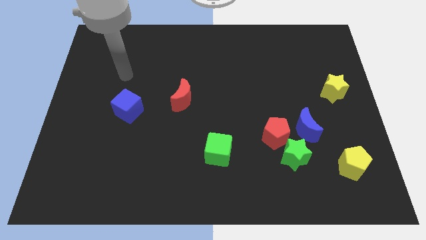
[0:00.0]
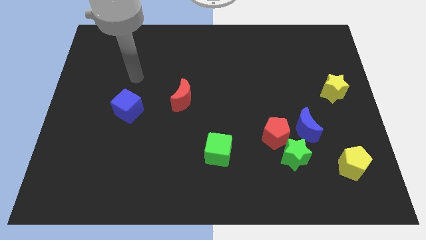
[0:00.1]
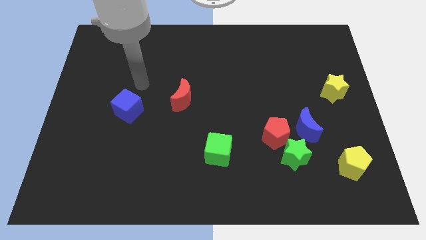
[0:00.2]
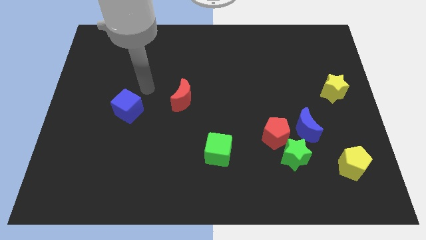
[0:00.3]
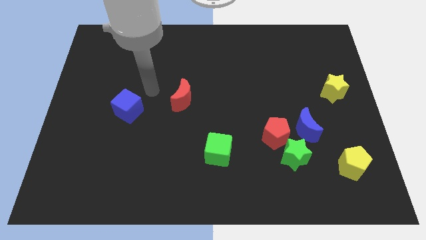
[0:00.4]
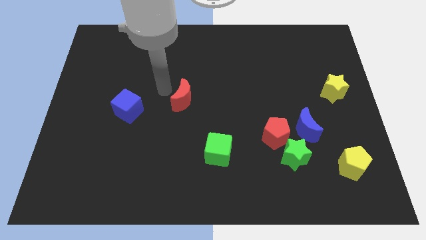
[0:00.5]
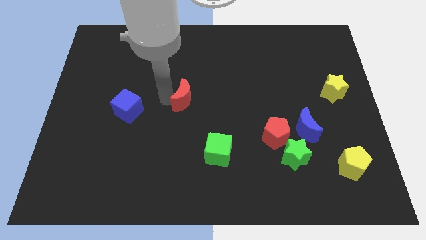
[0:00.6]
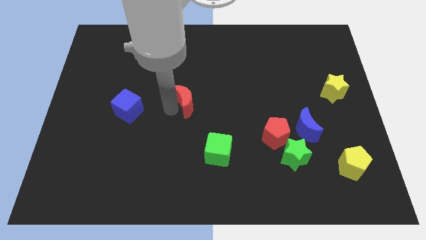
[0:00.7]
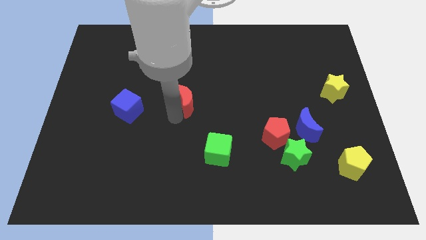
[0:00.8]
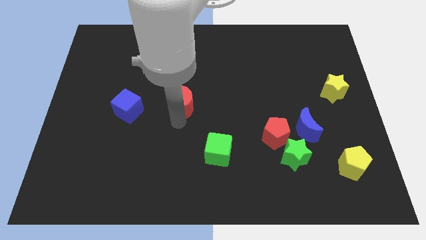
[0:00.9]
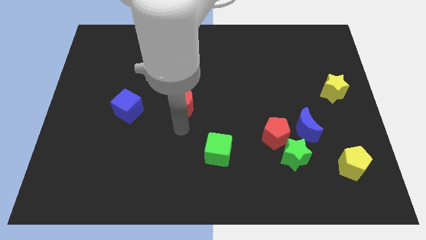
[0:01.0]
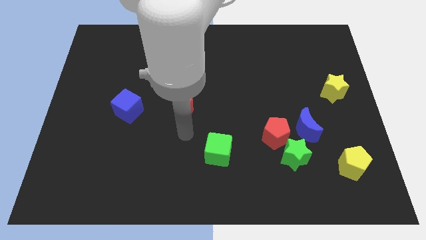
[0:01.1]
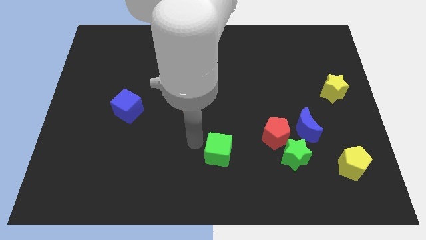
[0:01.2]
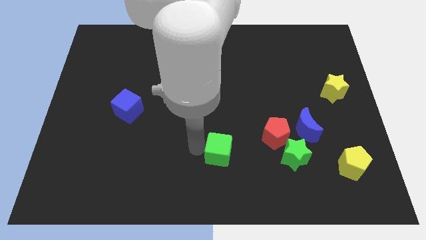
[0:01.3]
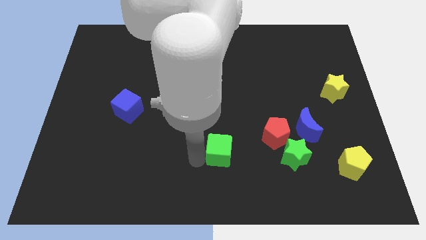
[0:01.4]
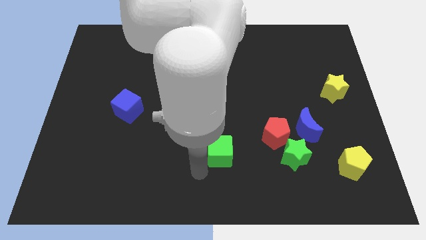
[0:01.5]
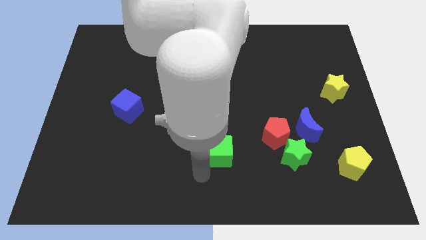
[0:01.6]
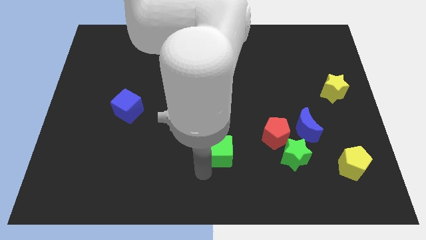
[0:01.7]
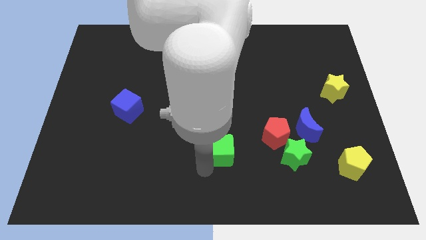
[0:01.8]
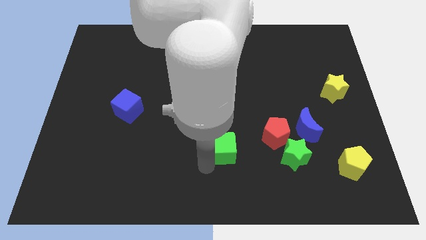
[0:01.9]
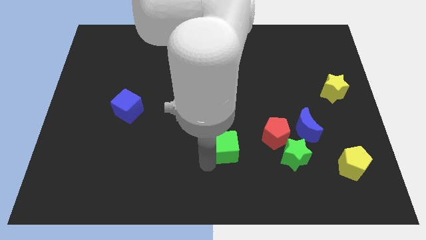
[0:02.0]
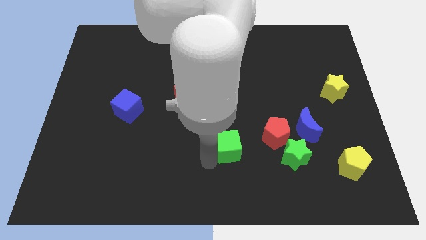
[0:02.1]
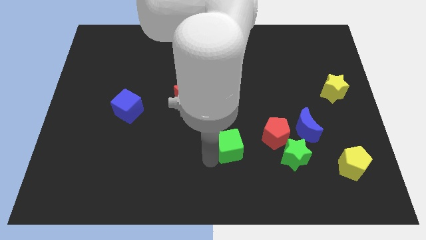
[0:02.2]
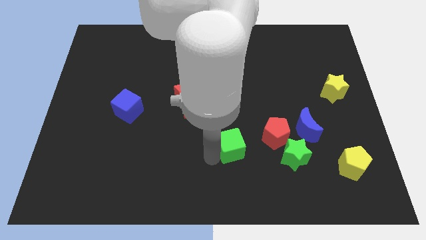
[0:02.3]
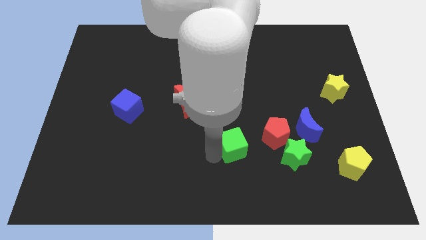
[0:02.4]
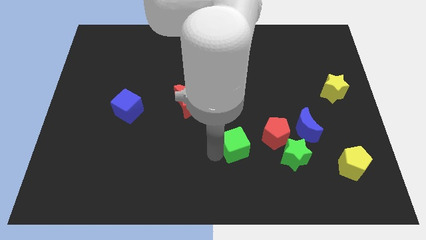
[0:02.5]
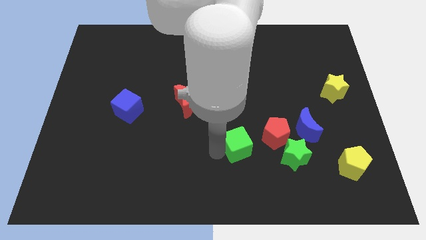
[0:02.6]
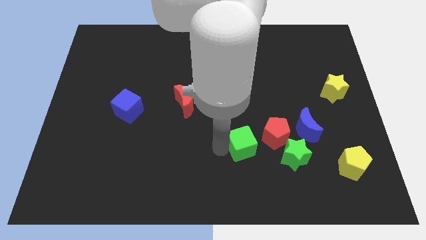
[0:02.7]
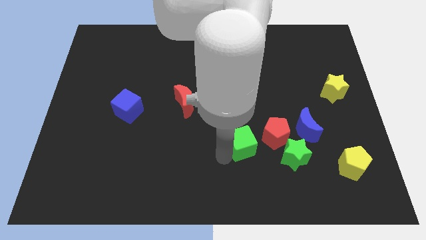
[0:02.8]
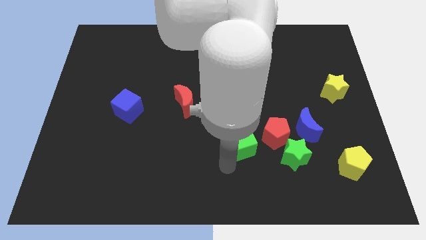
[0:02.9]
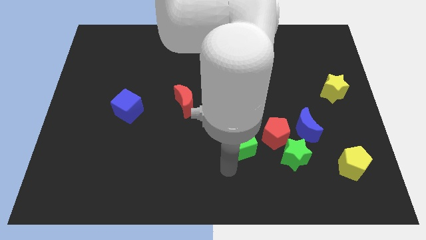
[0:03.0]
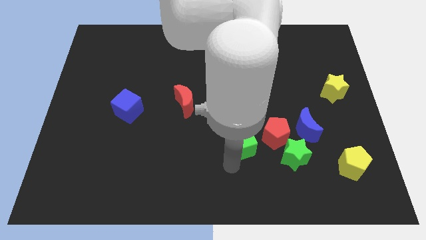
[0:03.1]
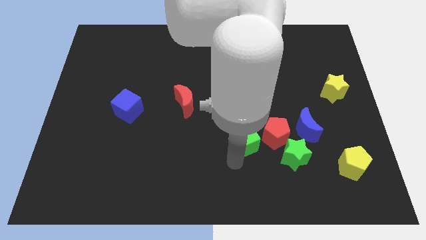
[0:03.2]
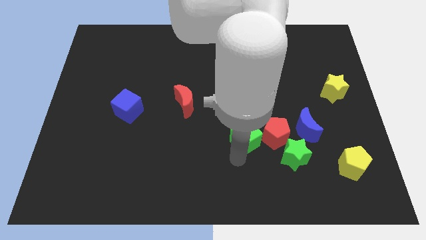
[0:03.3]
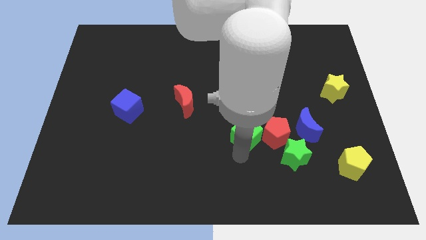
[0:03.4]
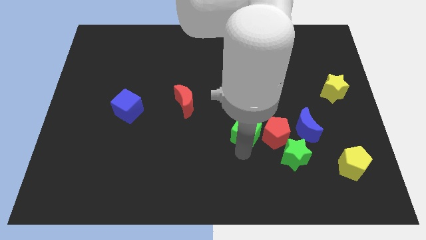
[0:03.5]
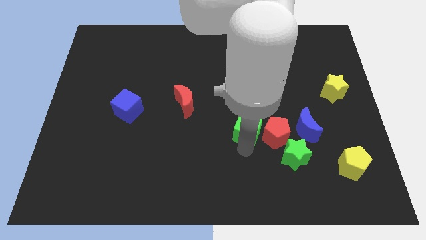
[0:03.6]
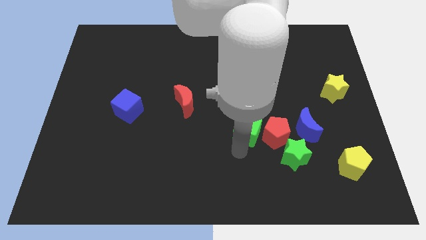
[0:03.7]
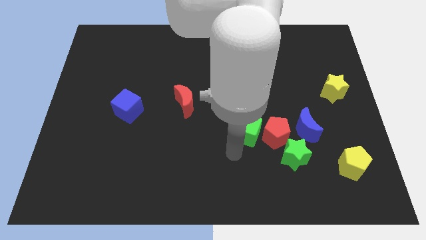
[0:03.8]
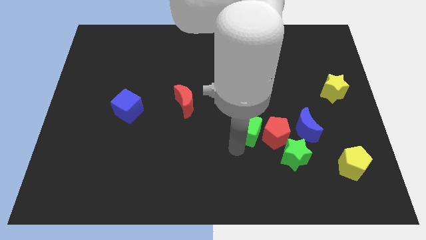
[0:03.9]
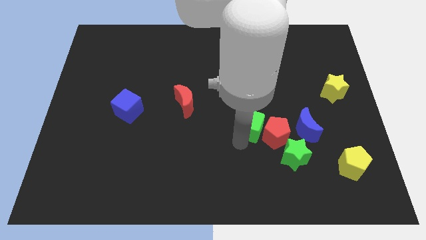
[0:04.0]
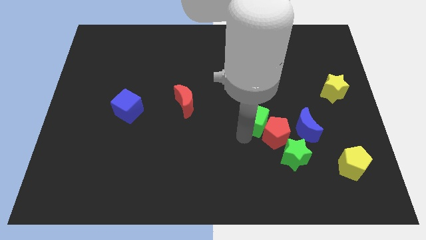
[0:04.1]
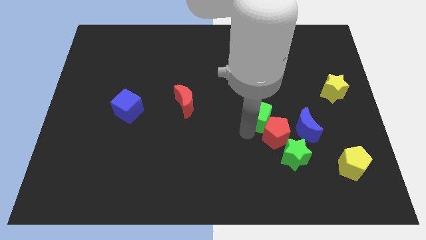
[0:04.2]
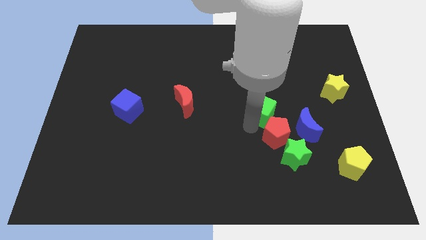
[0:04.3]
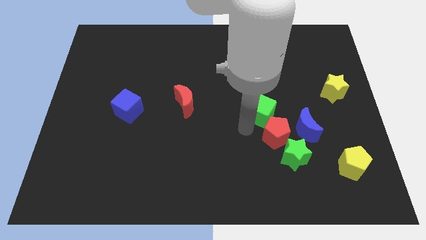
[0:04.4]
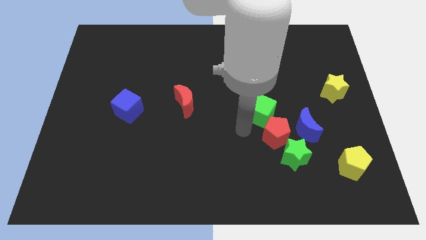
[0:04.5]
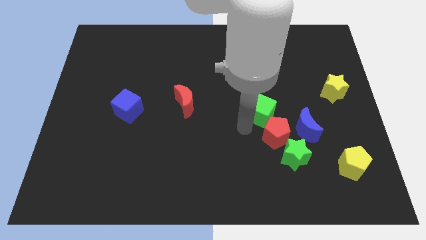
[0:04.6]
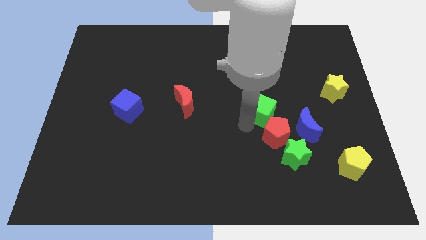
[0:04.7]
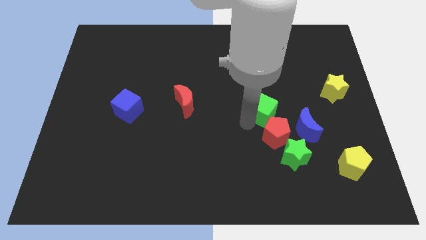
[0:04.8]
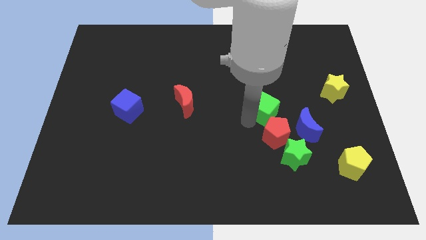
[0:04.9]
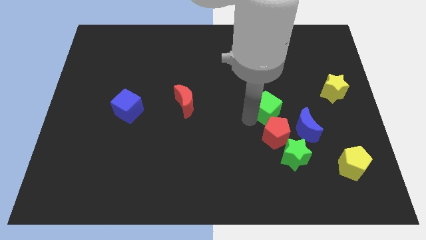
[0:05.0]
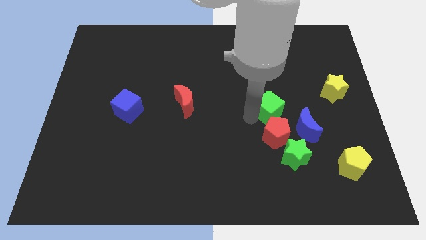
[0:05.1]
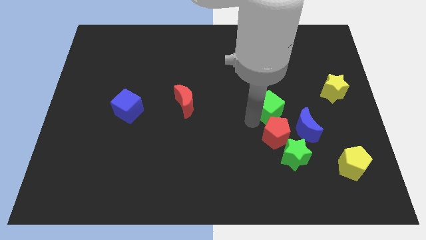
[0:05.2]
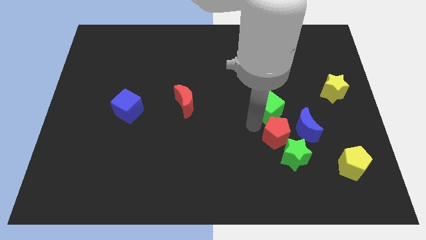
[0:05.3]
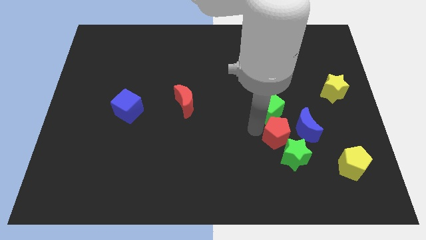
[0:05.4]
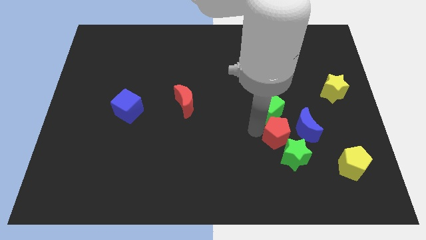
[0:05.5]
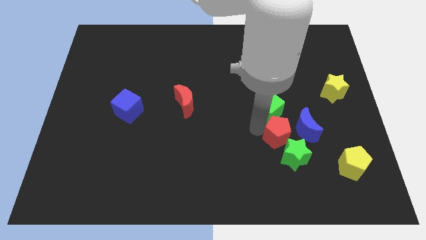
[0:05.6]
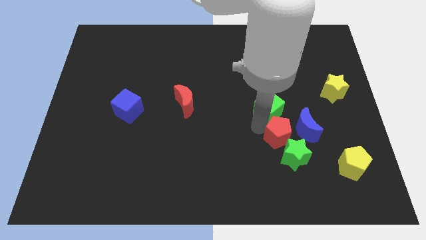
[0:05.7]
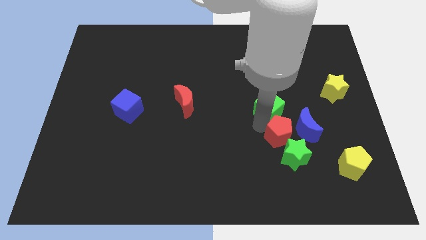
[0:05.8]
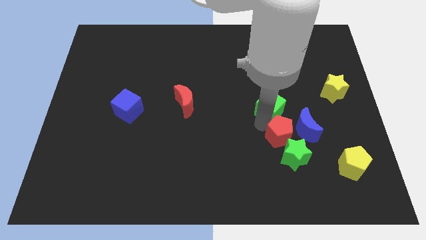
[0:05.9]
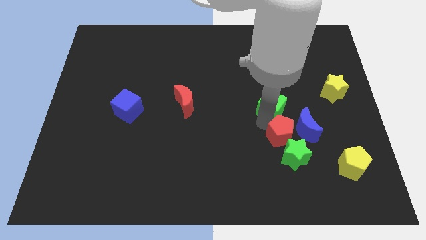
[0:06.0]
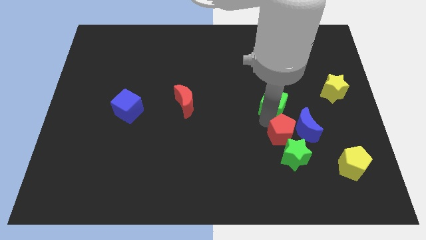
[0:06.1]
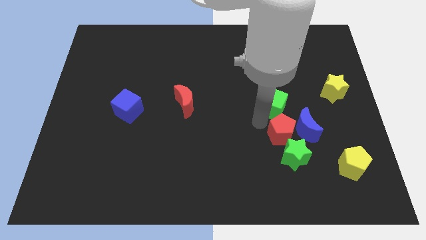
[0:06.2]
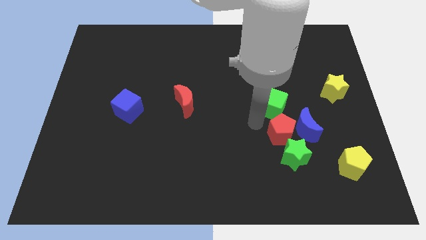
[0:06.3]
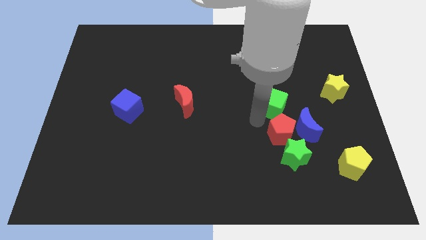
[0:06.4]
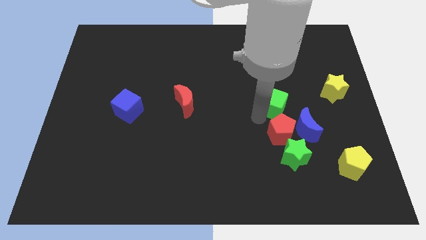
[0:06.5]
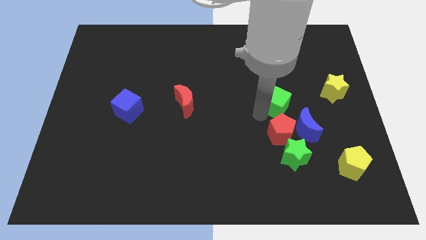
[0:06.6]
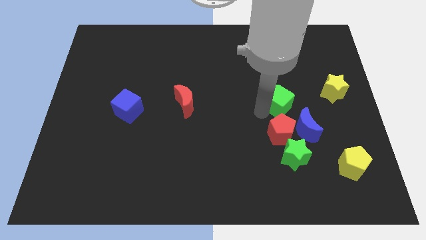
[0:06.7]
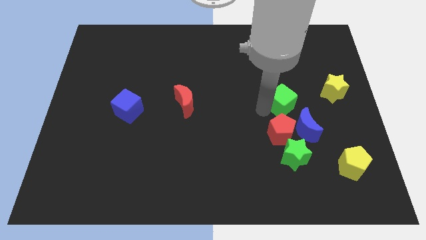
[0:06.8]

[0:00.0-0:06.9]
slide the green cube diagonally up and right

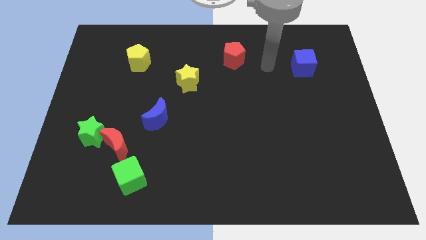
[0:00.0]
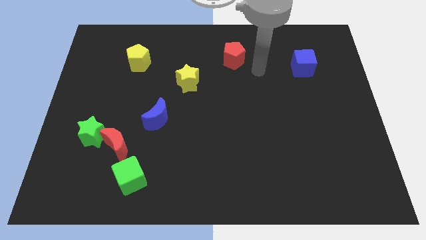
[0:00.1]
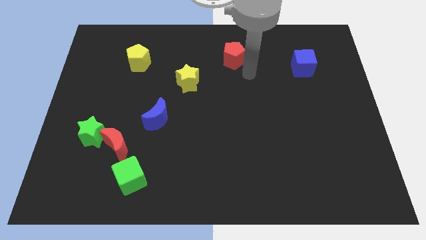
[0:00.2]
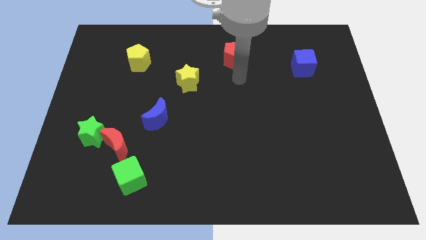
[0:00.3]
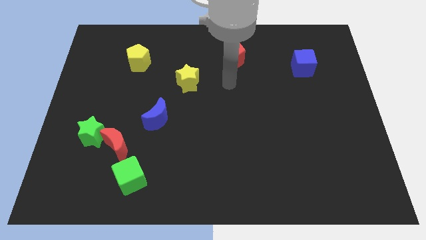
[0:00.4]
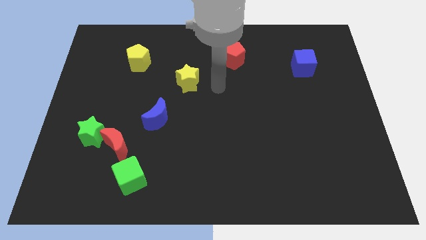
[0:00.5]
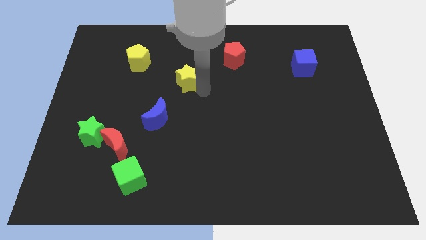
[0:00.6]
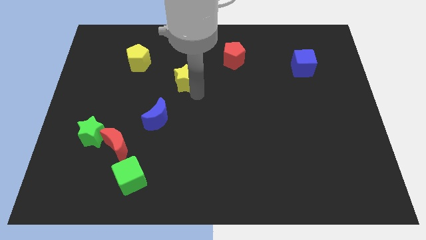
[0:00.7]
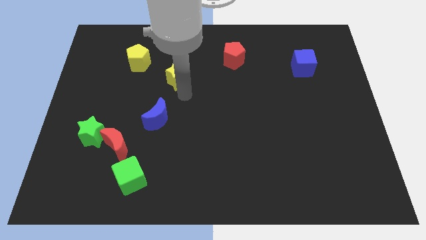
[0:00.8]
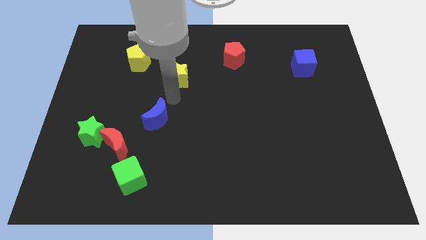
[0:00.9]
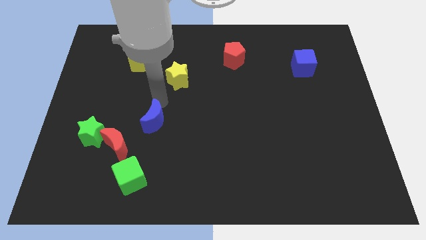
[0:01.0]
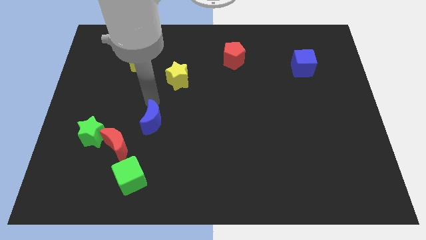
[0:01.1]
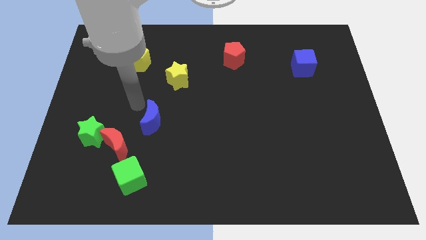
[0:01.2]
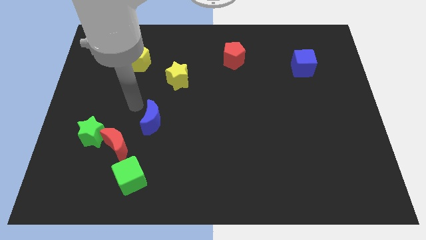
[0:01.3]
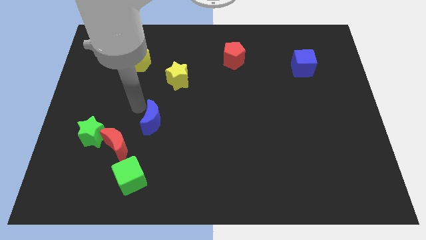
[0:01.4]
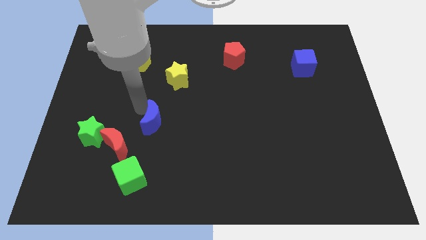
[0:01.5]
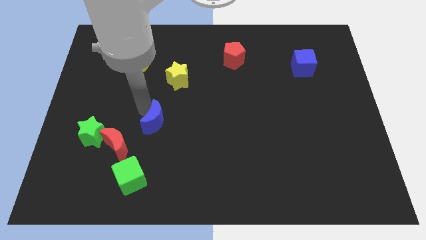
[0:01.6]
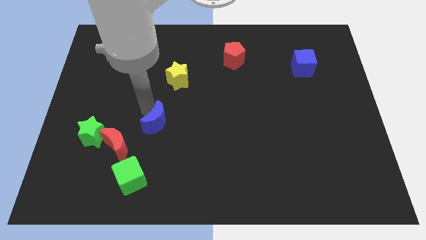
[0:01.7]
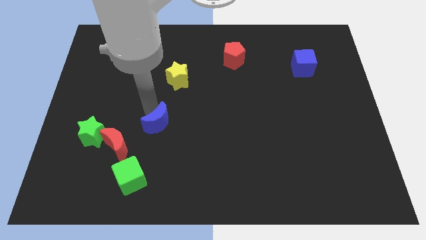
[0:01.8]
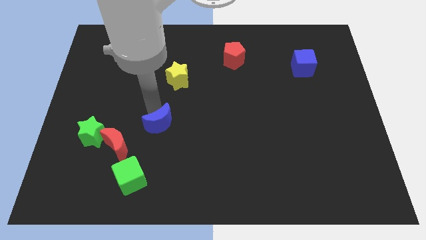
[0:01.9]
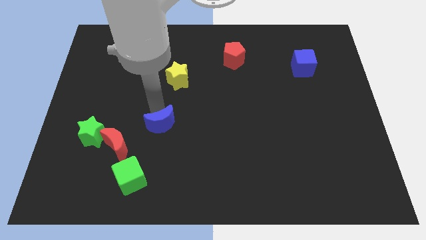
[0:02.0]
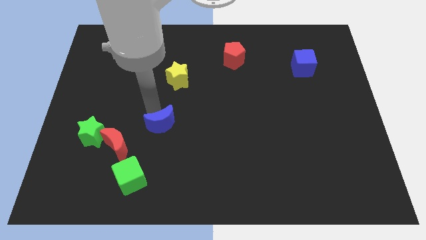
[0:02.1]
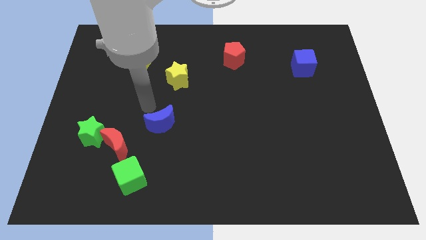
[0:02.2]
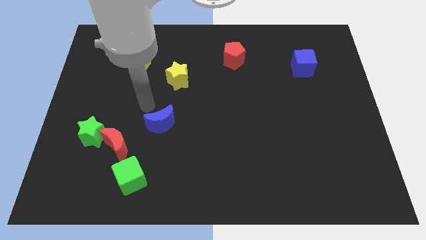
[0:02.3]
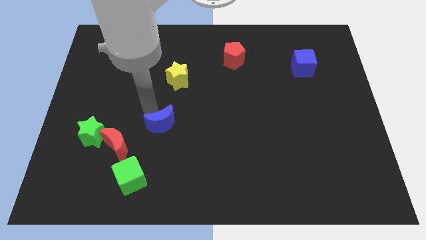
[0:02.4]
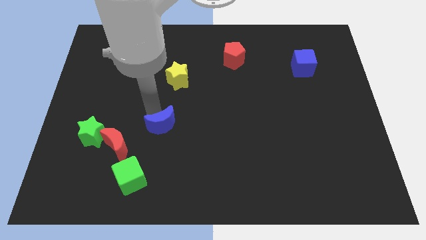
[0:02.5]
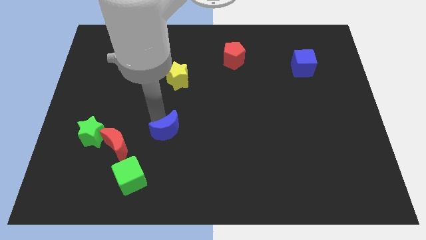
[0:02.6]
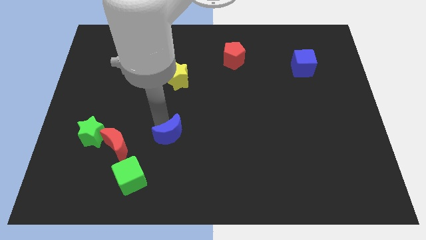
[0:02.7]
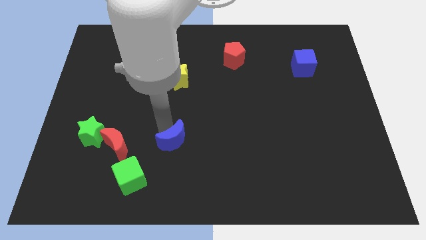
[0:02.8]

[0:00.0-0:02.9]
move the blue moon a little bit down and then right
